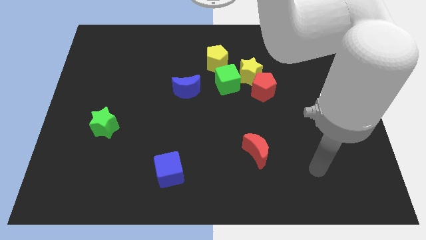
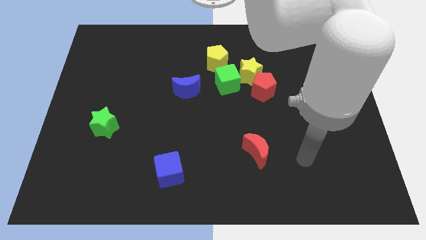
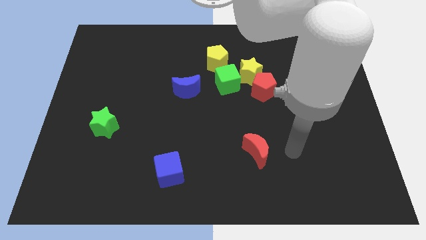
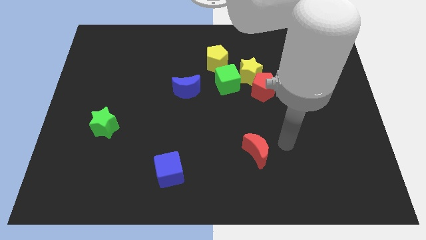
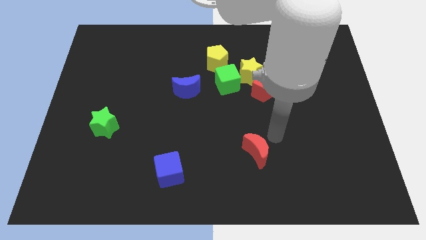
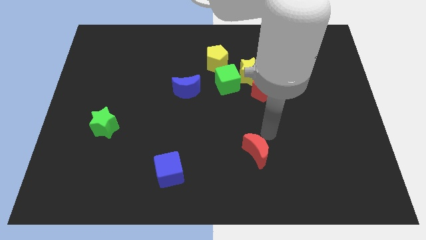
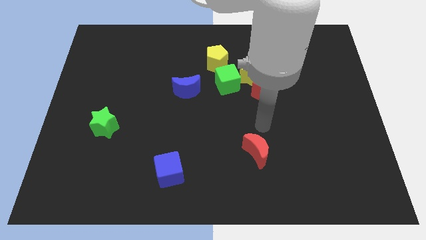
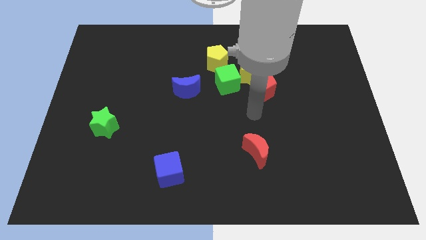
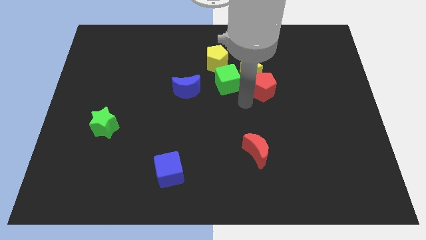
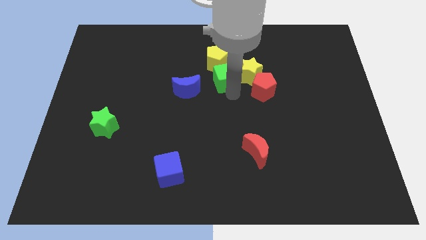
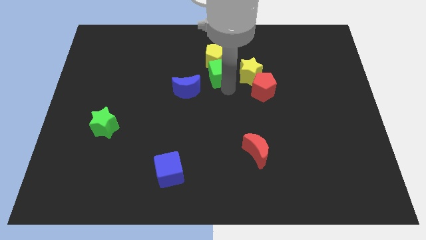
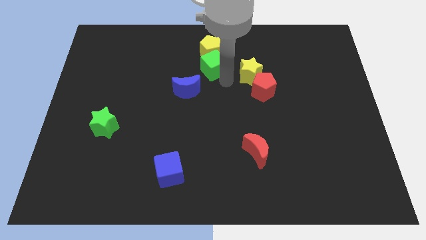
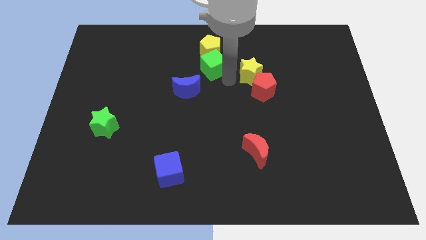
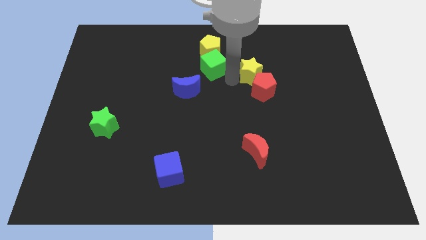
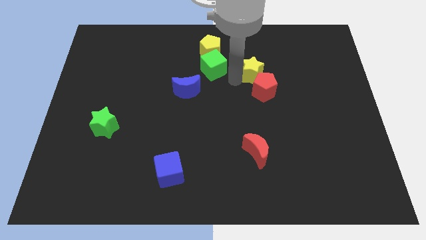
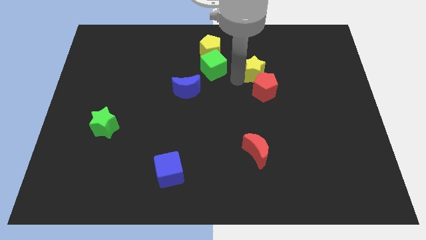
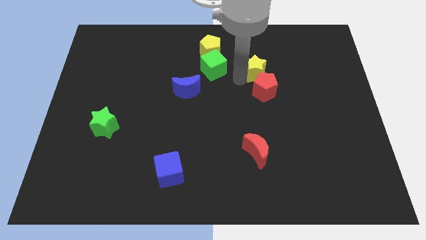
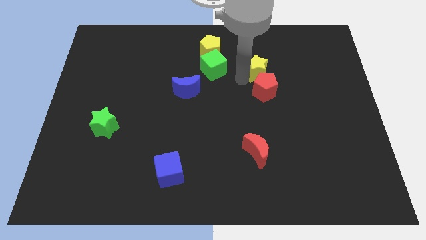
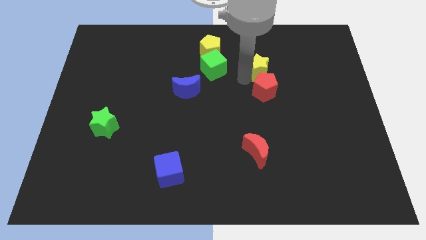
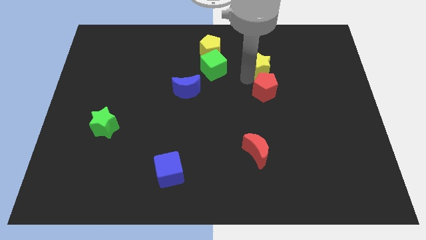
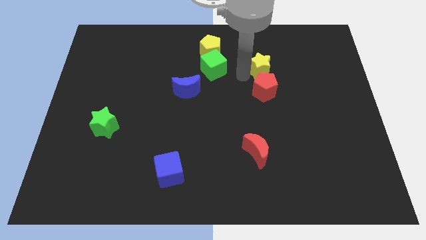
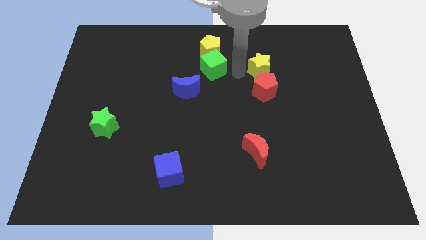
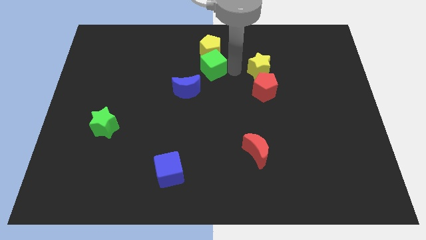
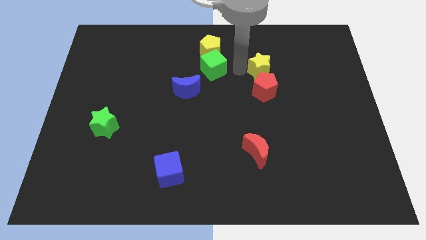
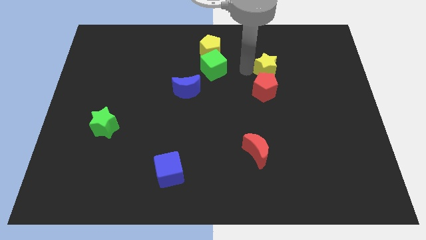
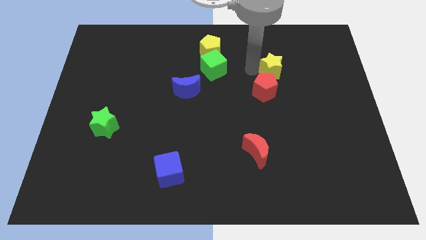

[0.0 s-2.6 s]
separate the yellow star from the red pentagon, green cube, and yellow pentagon

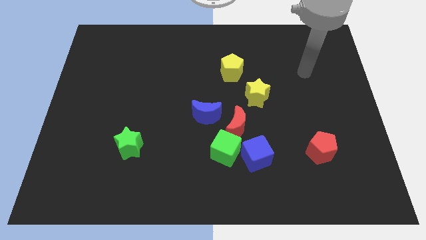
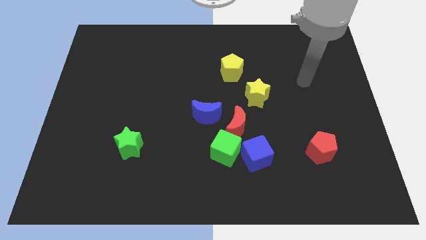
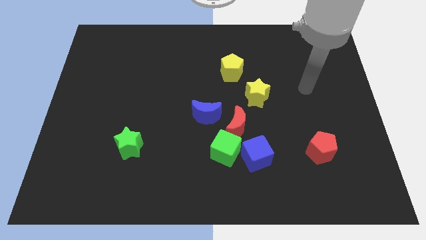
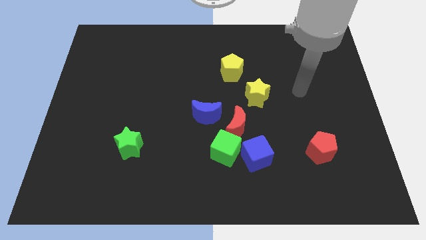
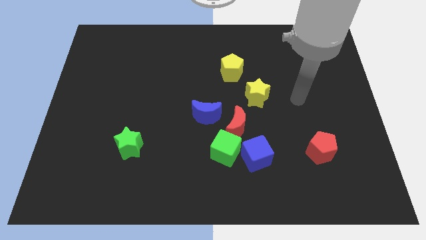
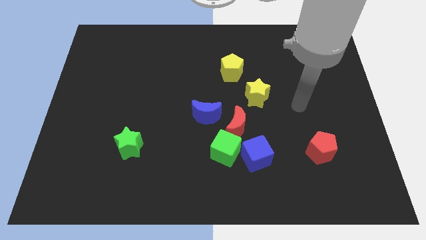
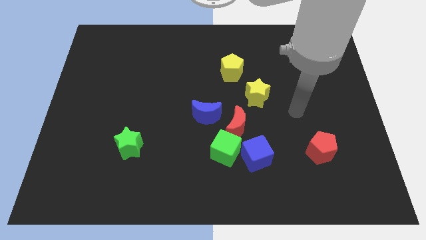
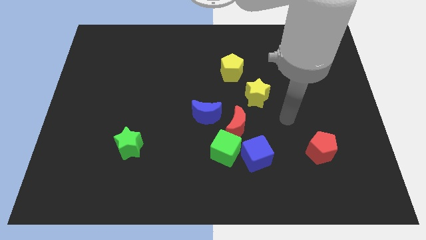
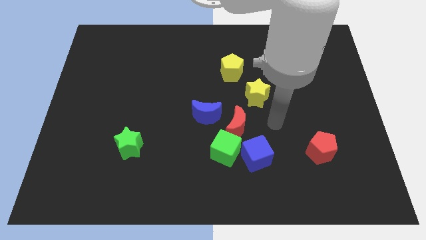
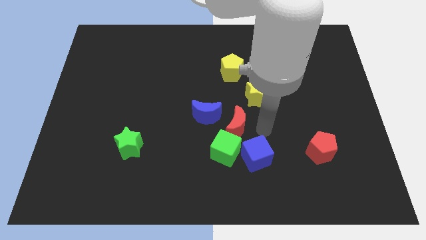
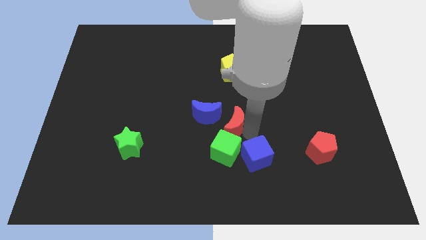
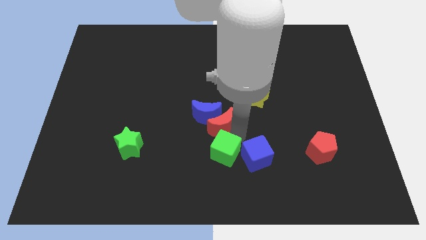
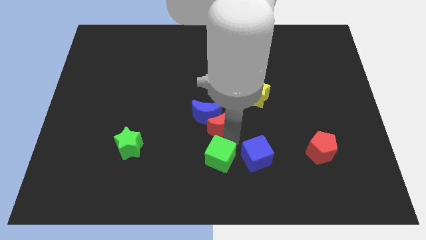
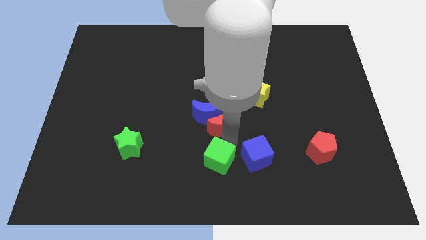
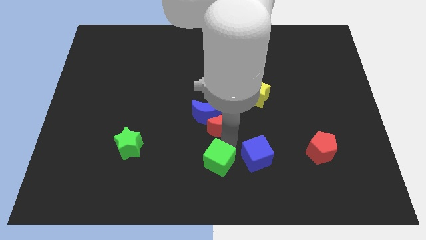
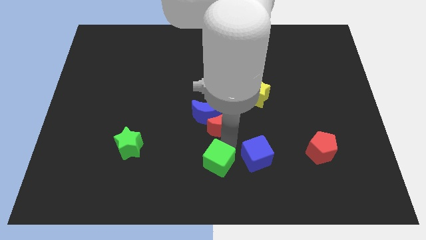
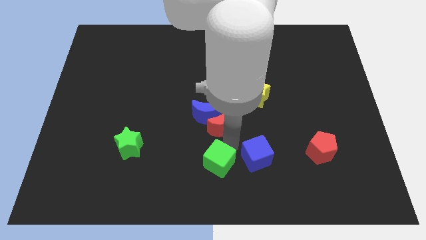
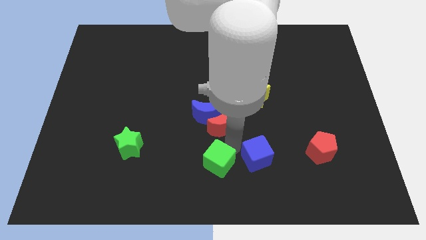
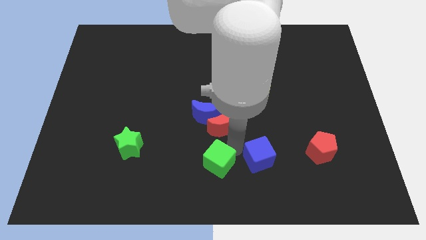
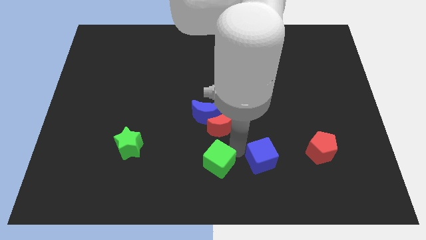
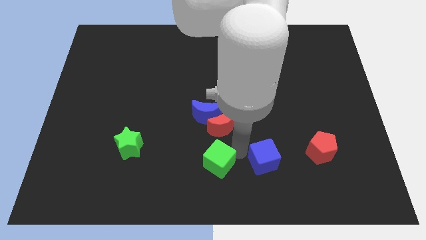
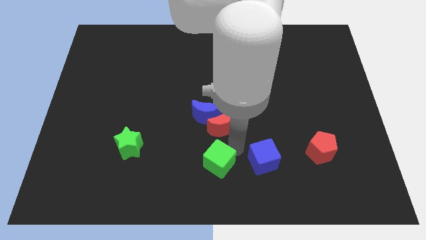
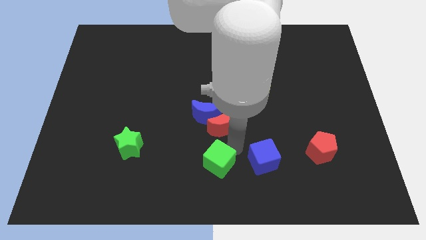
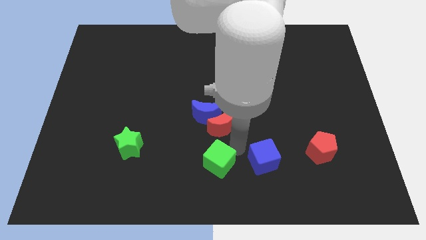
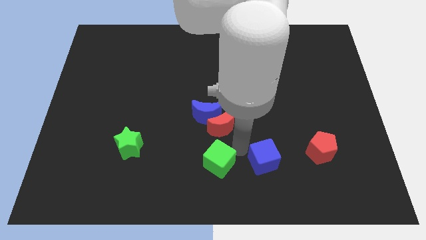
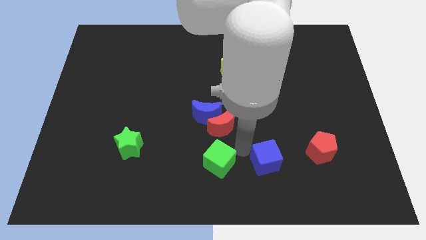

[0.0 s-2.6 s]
separate the blue cube from the green cube and red moon

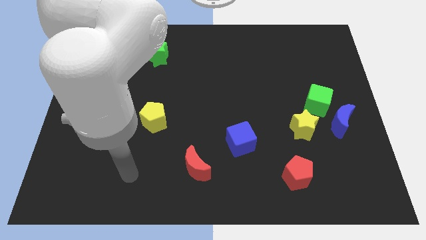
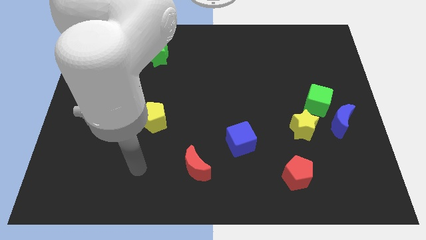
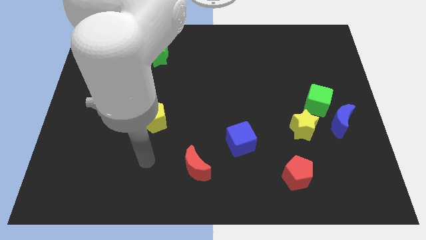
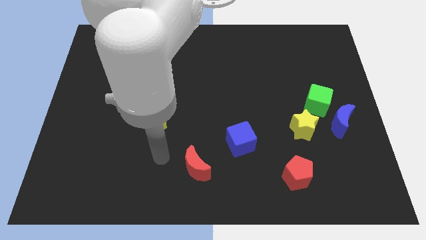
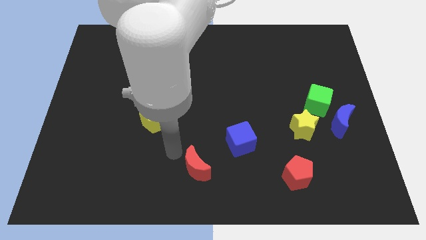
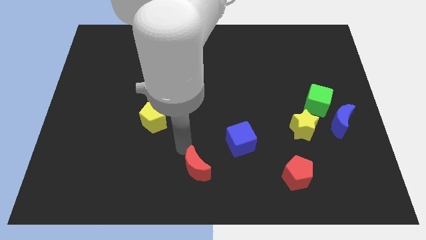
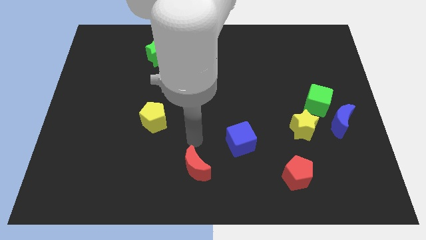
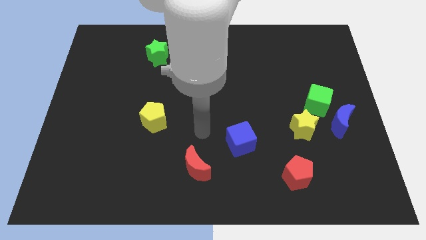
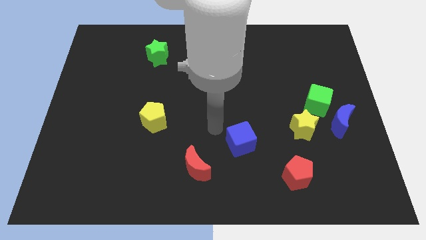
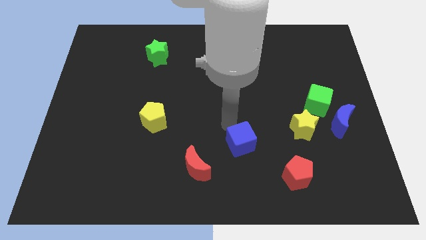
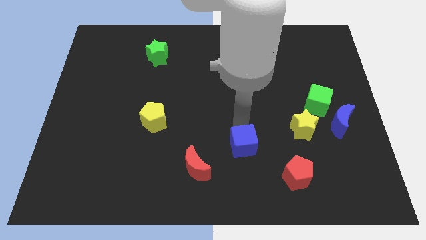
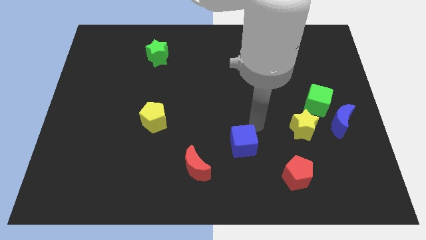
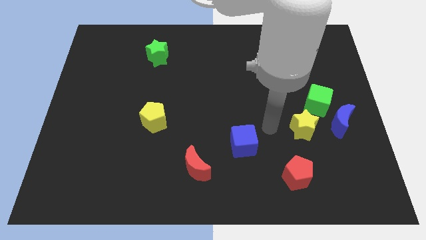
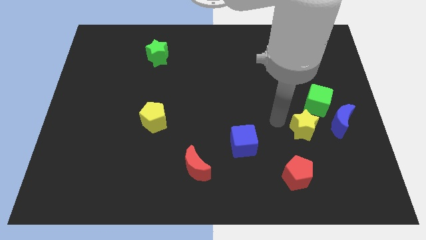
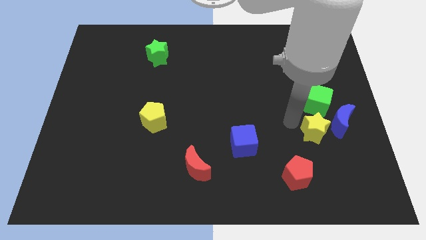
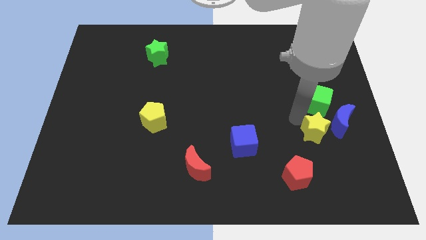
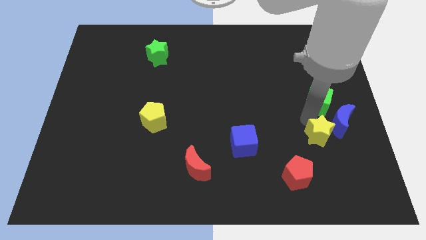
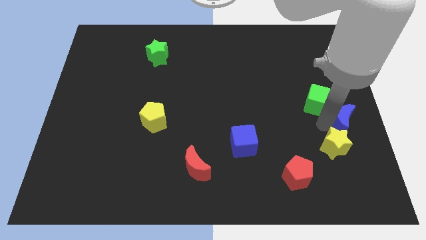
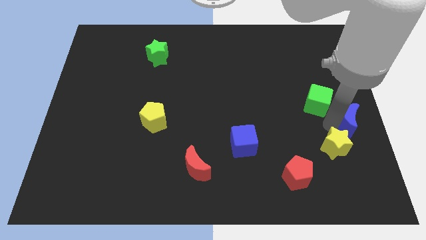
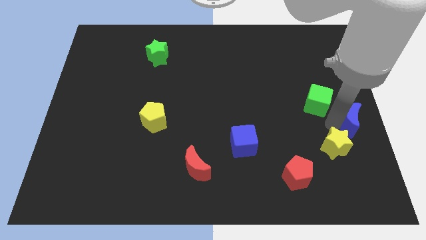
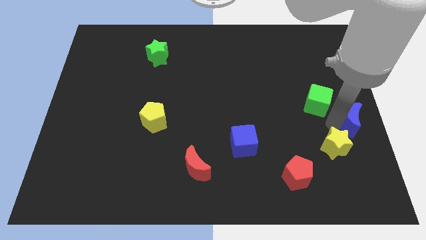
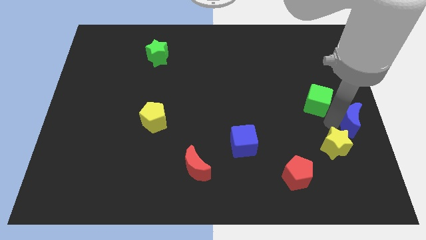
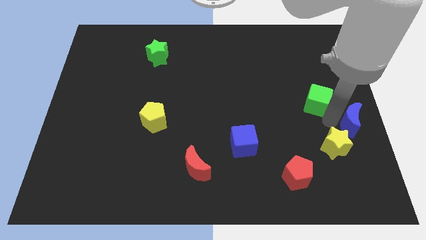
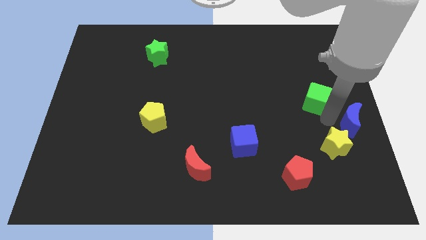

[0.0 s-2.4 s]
separate the green cube from the blue moon and yellow star

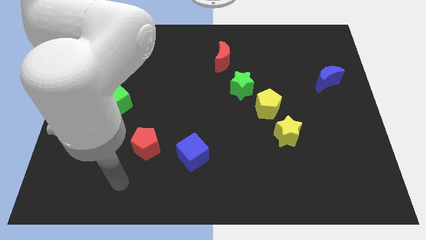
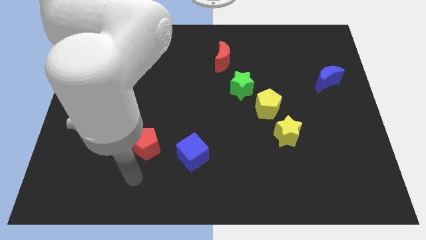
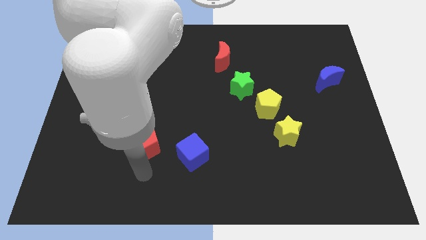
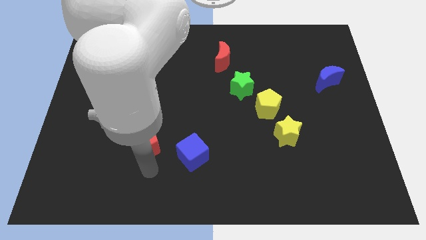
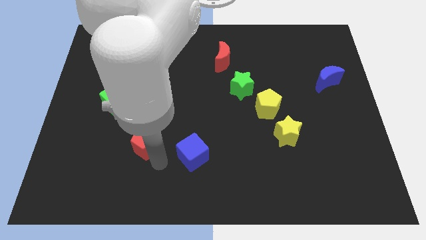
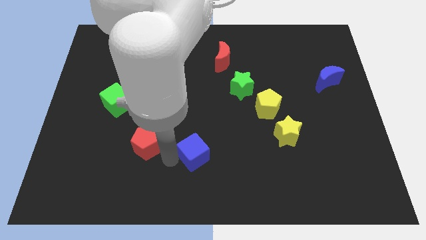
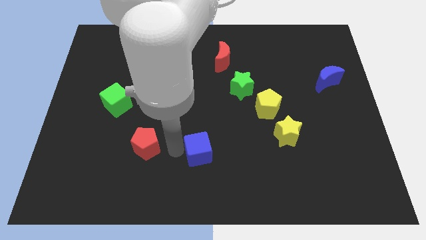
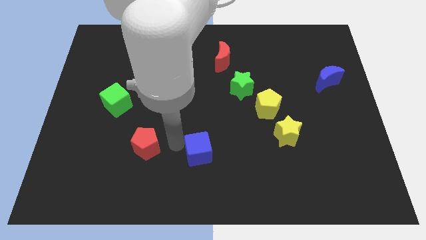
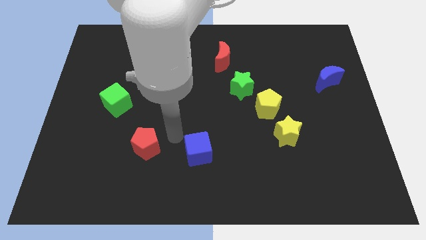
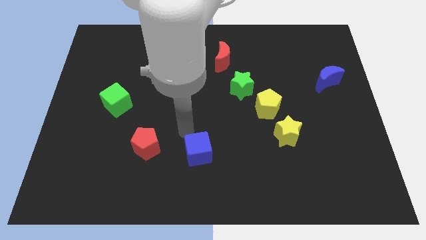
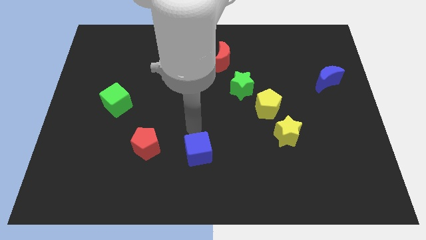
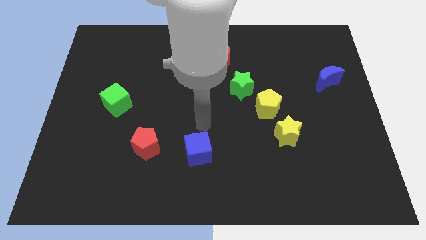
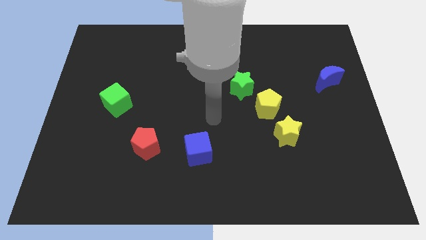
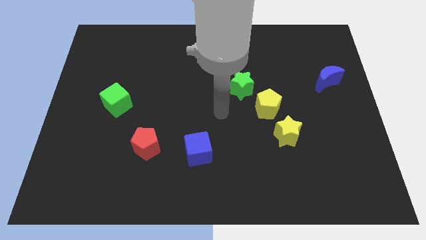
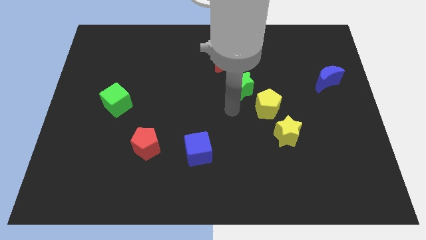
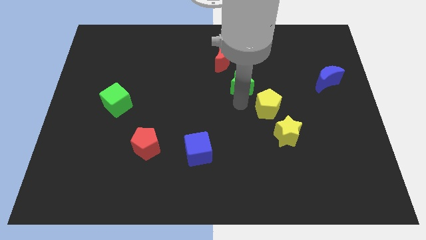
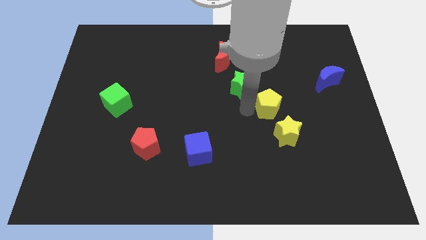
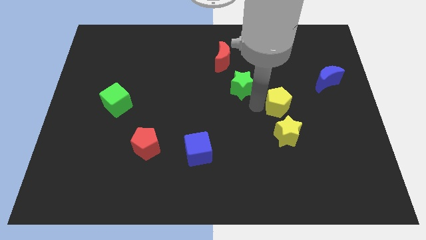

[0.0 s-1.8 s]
pull the green star apart from the yellow pentagon

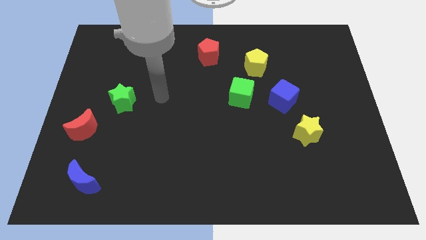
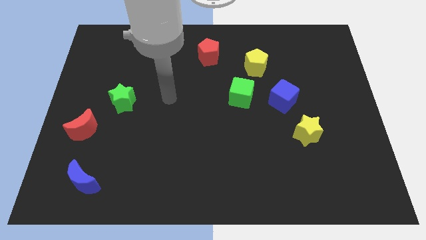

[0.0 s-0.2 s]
separate the green cube from the blue cube
